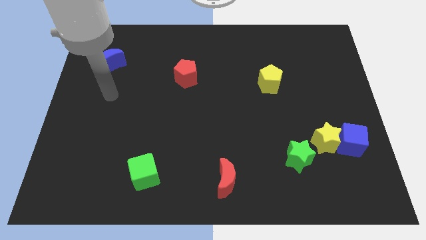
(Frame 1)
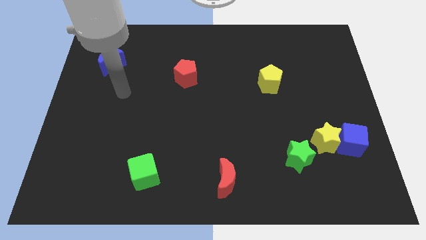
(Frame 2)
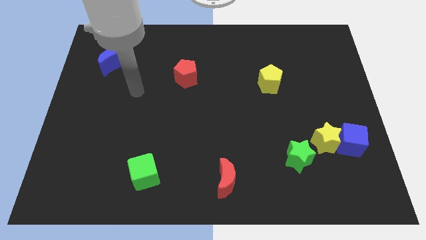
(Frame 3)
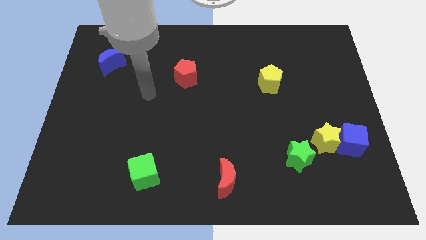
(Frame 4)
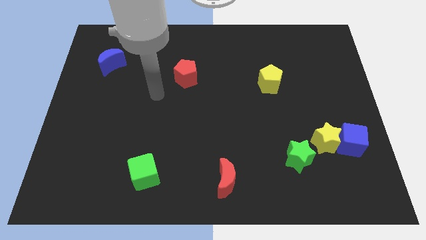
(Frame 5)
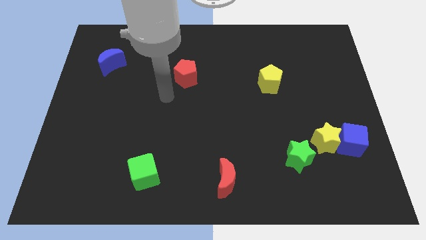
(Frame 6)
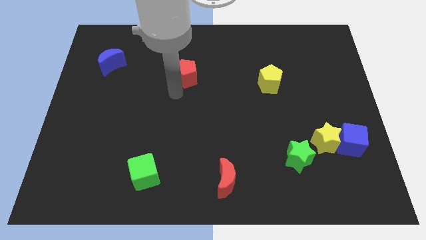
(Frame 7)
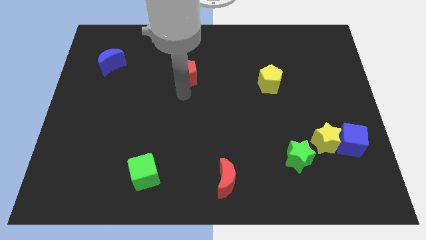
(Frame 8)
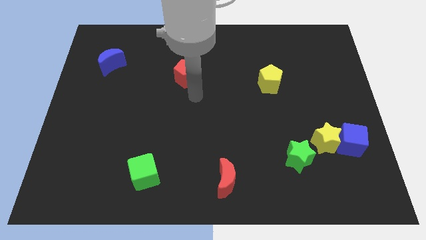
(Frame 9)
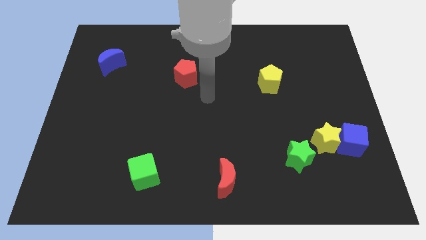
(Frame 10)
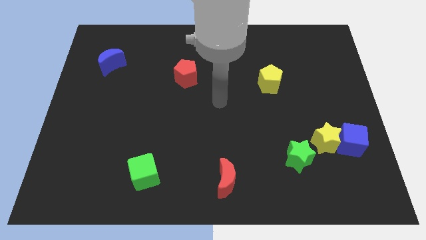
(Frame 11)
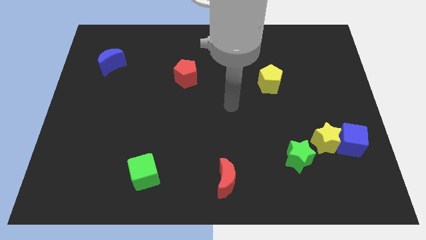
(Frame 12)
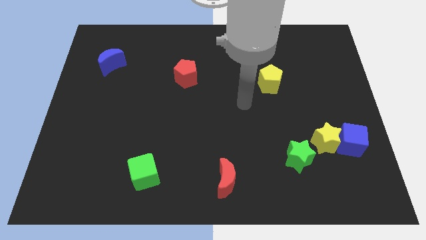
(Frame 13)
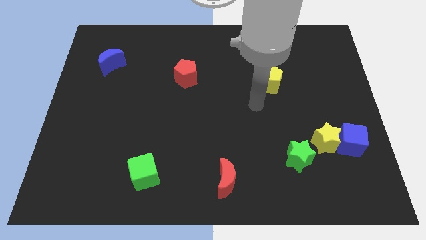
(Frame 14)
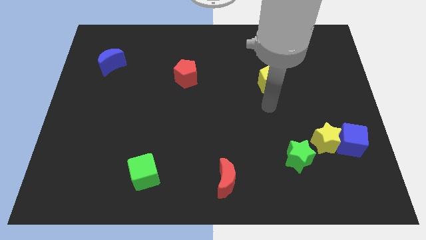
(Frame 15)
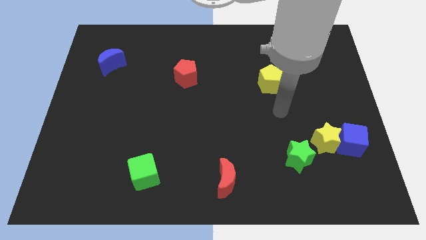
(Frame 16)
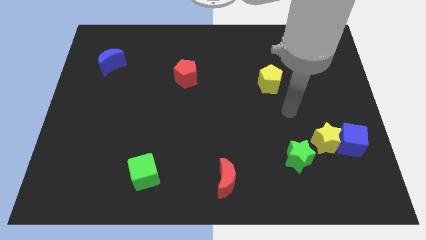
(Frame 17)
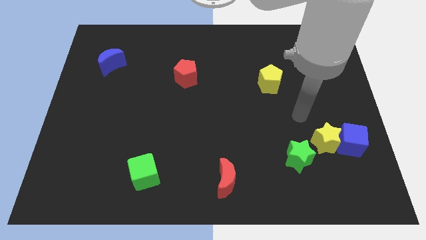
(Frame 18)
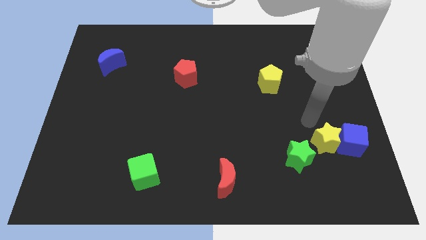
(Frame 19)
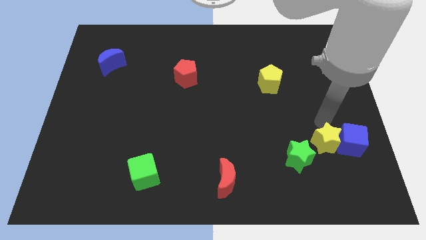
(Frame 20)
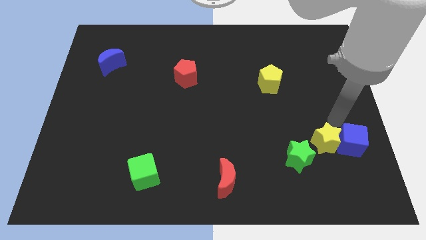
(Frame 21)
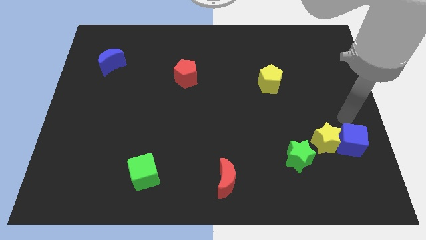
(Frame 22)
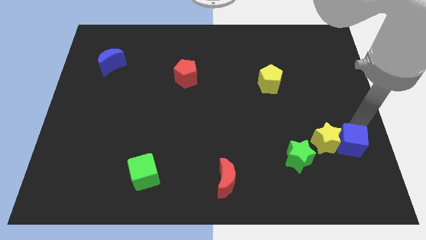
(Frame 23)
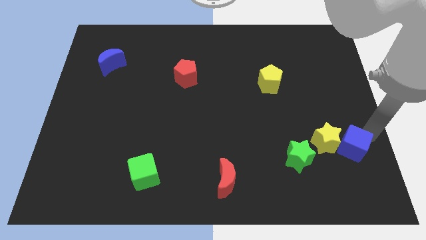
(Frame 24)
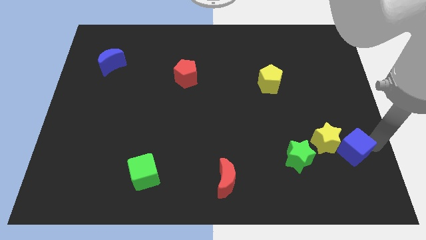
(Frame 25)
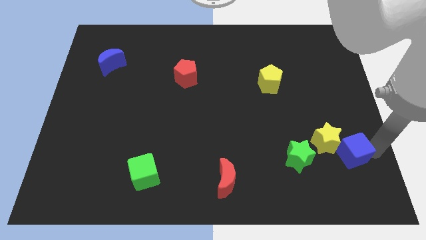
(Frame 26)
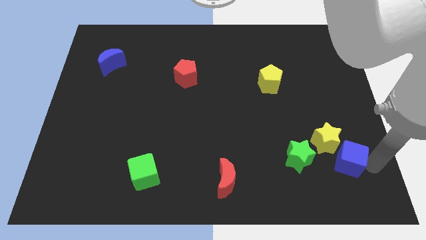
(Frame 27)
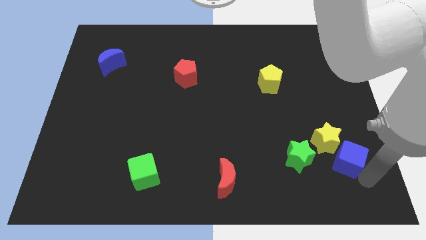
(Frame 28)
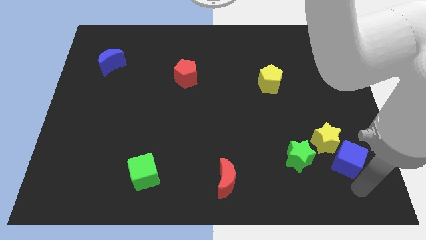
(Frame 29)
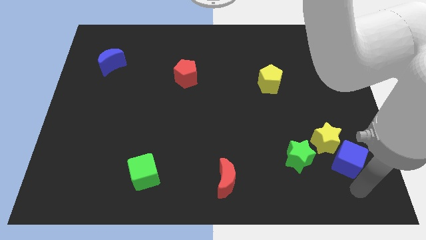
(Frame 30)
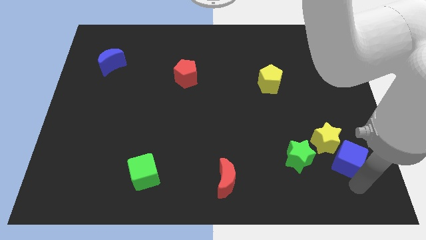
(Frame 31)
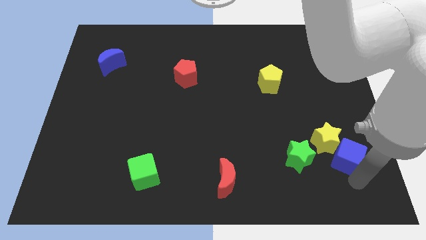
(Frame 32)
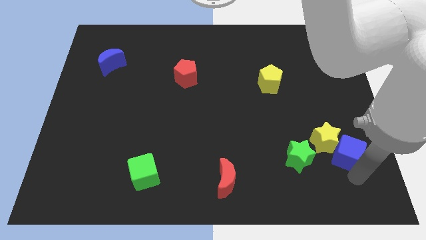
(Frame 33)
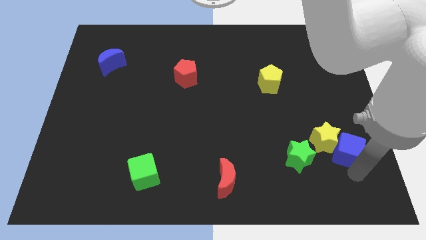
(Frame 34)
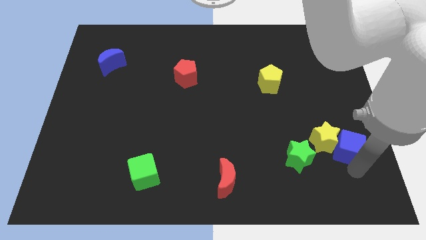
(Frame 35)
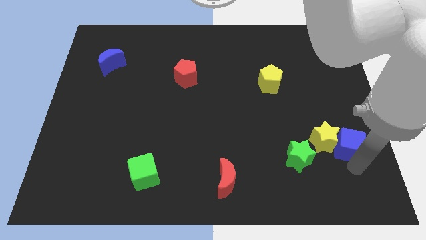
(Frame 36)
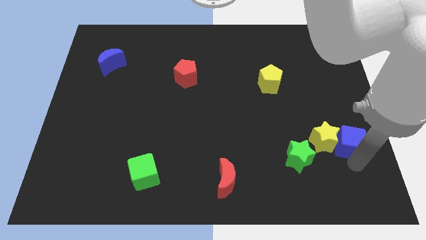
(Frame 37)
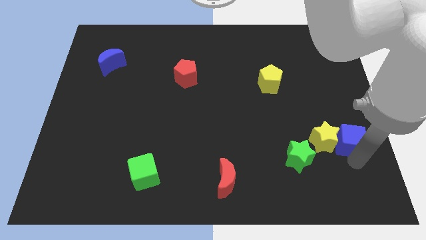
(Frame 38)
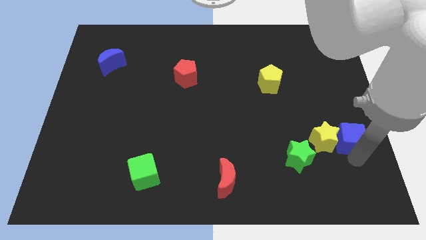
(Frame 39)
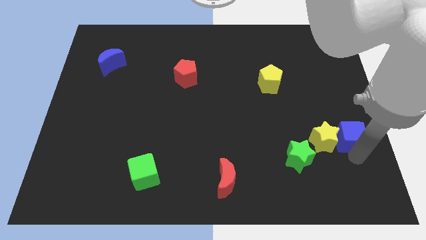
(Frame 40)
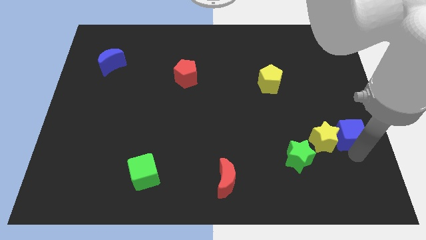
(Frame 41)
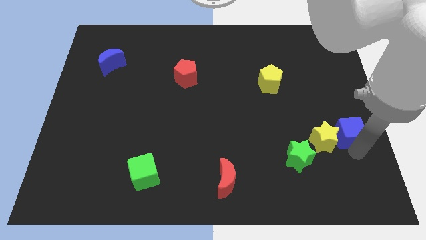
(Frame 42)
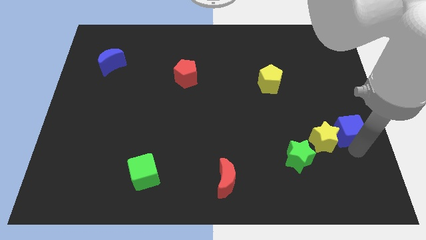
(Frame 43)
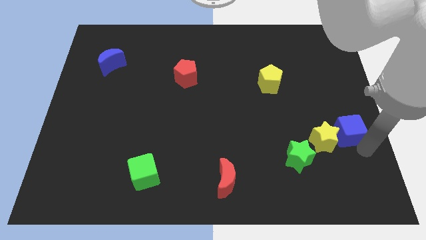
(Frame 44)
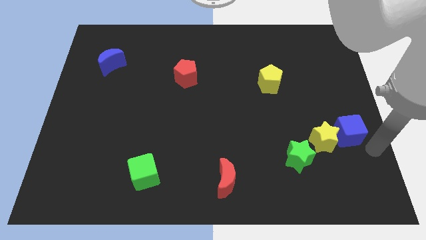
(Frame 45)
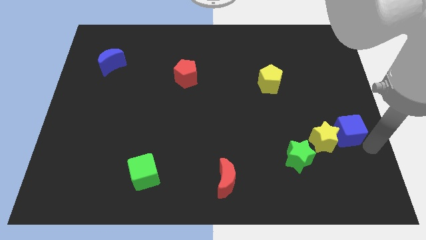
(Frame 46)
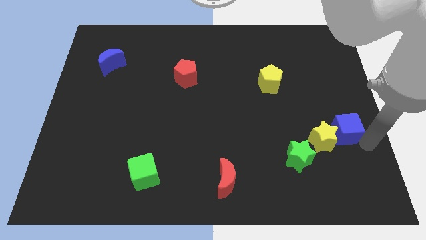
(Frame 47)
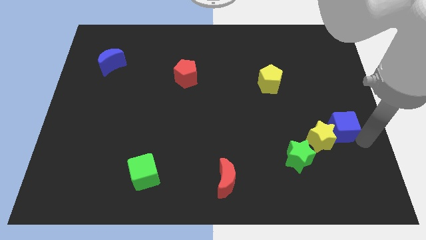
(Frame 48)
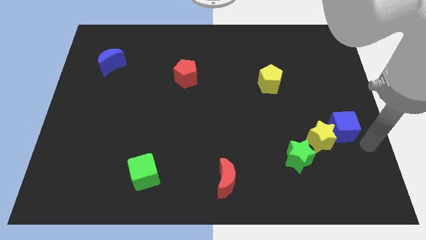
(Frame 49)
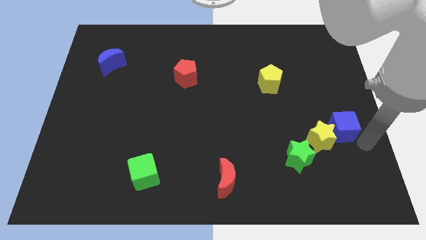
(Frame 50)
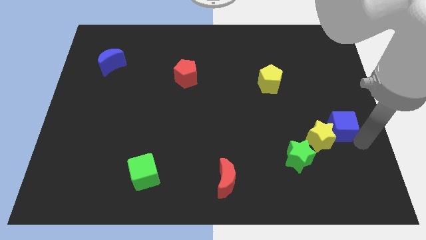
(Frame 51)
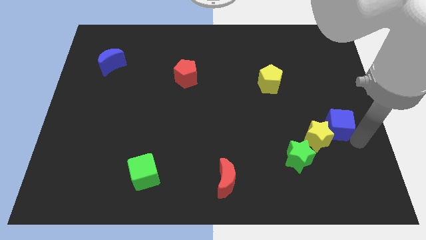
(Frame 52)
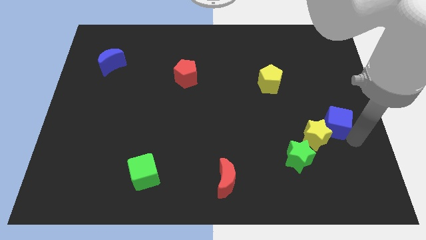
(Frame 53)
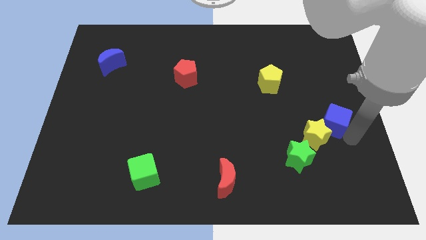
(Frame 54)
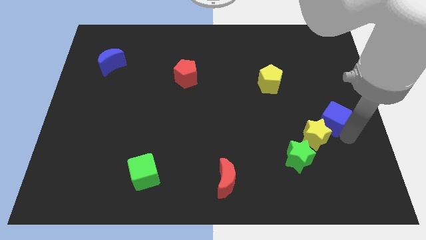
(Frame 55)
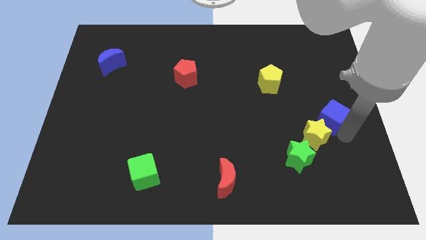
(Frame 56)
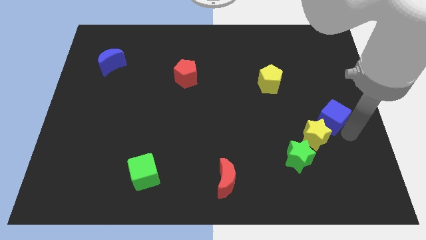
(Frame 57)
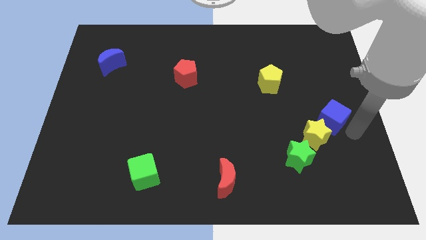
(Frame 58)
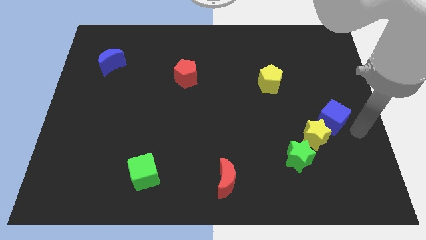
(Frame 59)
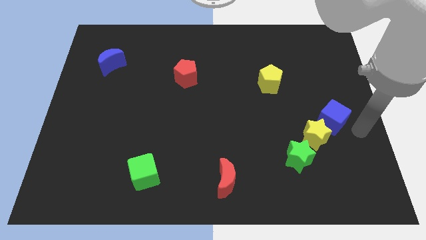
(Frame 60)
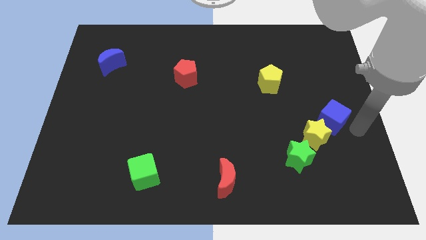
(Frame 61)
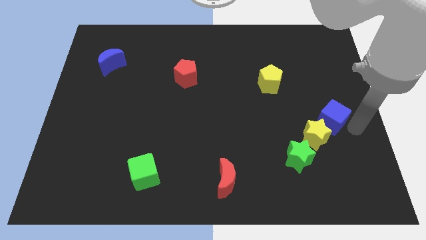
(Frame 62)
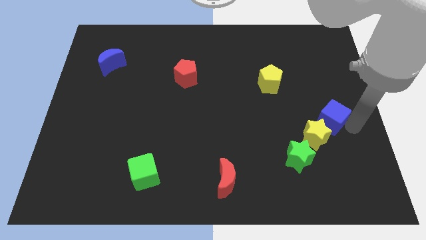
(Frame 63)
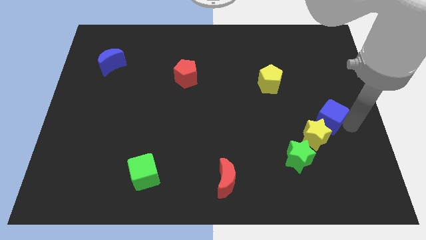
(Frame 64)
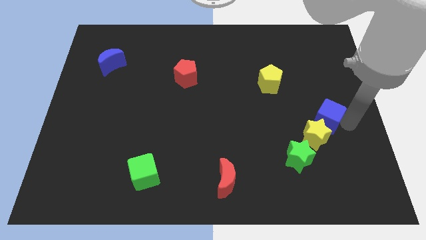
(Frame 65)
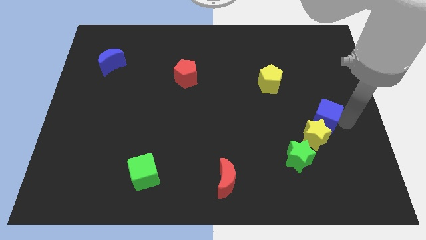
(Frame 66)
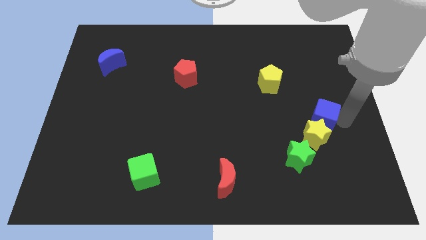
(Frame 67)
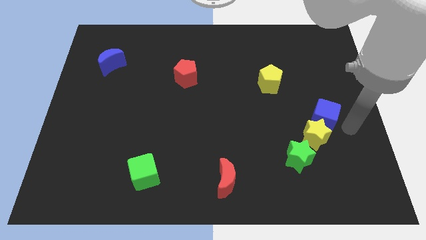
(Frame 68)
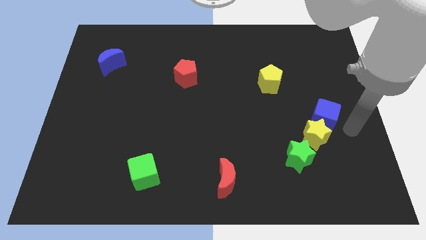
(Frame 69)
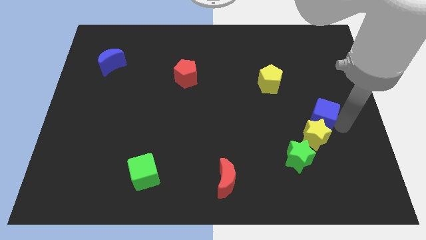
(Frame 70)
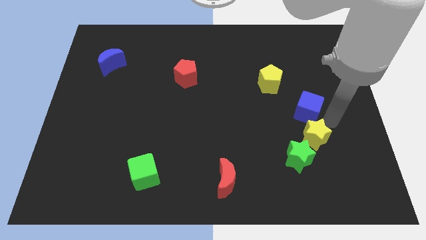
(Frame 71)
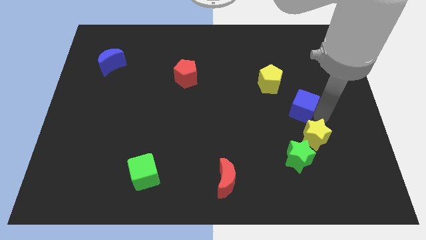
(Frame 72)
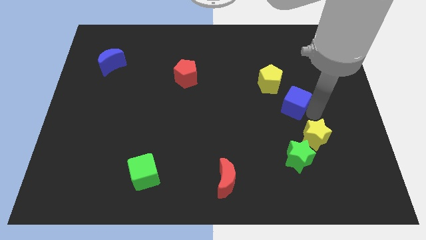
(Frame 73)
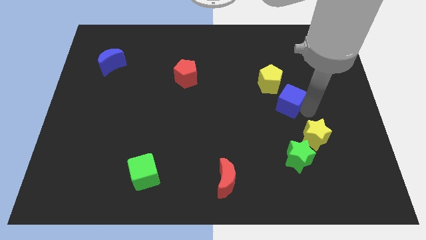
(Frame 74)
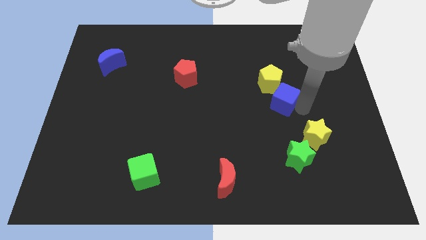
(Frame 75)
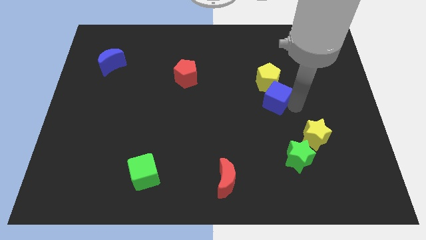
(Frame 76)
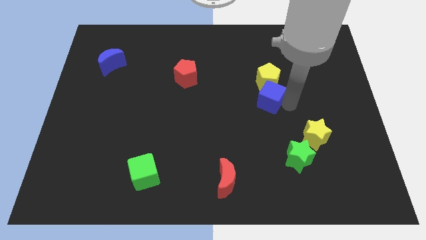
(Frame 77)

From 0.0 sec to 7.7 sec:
move the blue cube diagonally up and to the left
